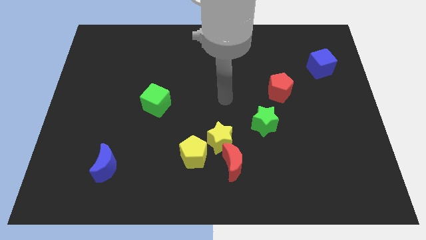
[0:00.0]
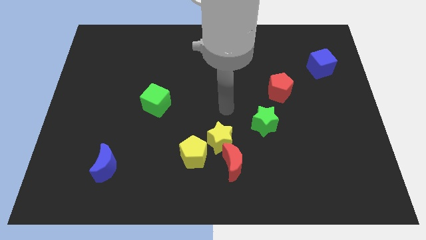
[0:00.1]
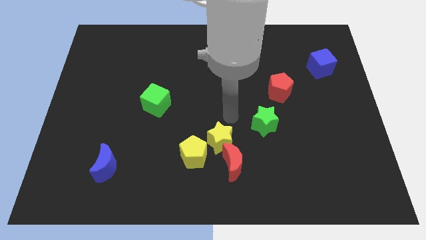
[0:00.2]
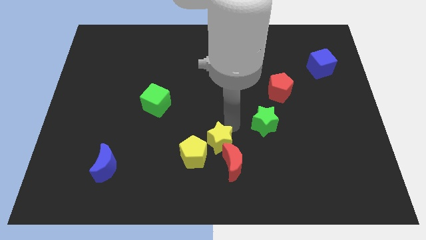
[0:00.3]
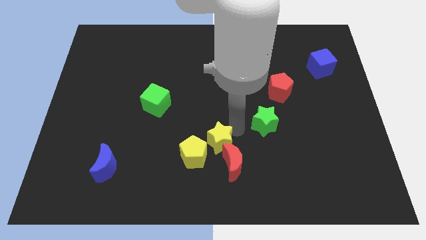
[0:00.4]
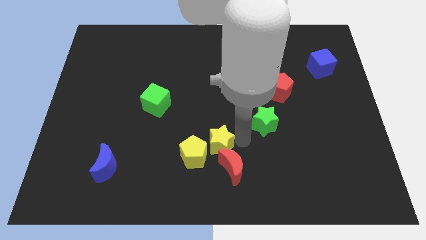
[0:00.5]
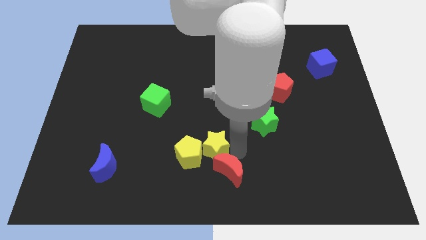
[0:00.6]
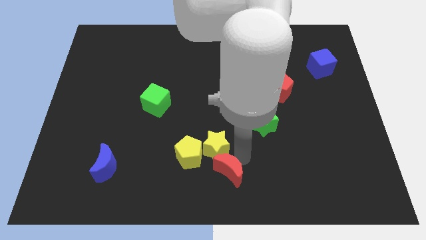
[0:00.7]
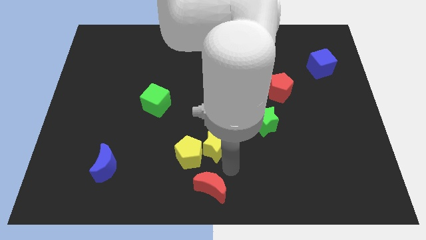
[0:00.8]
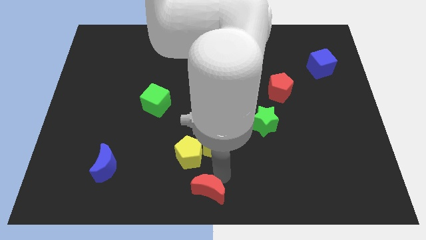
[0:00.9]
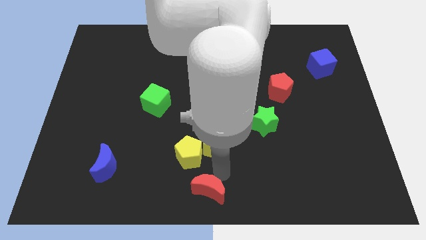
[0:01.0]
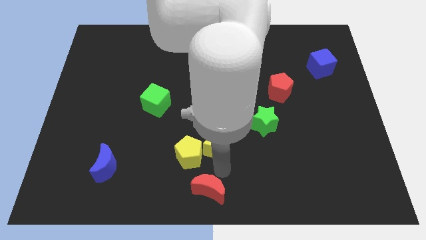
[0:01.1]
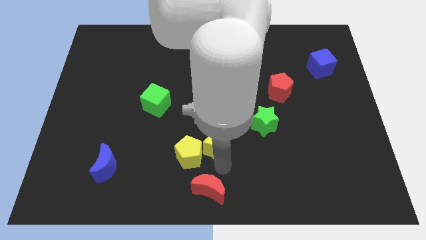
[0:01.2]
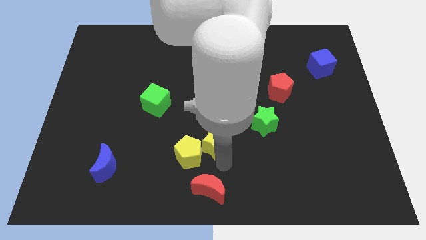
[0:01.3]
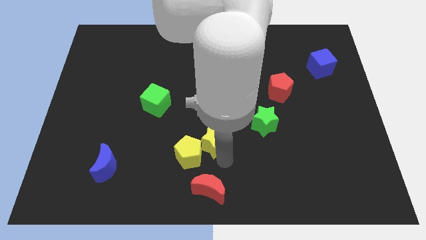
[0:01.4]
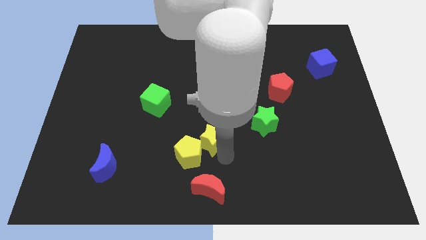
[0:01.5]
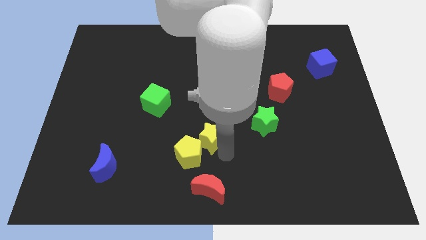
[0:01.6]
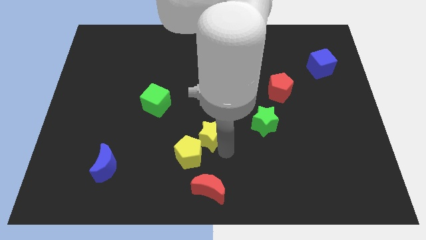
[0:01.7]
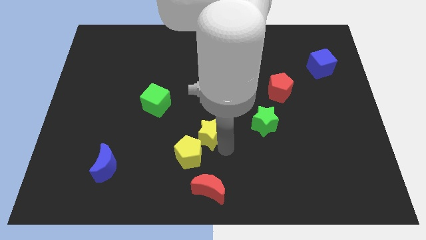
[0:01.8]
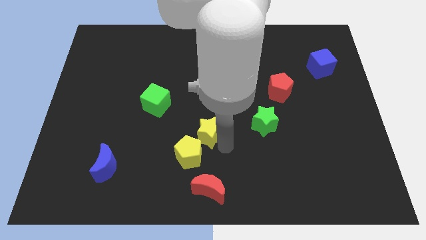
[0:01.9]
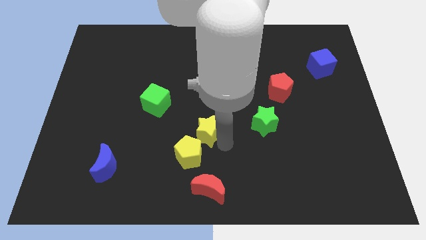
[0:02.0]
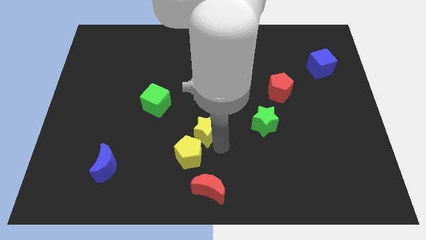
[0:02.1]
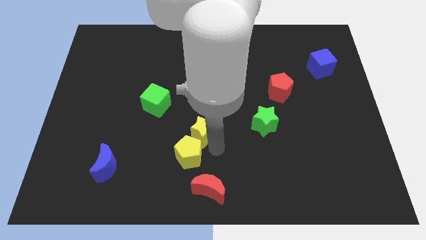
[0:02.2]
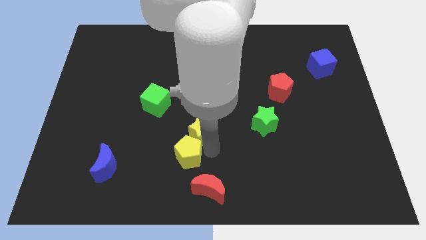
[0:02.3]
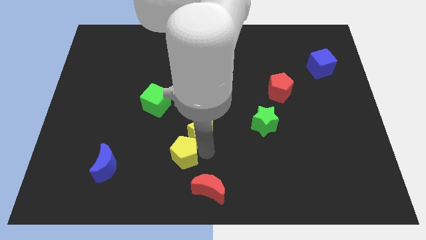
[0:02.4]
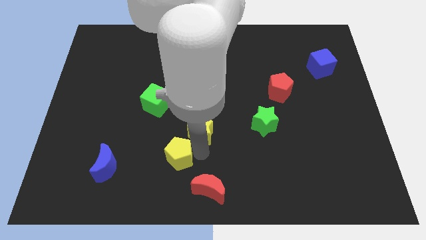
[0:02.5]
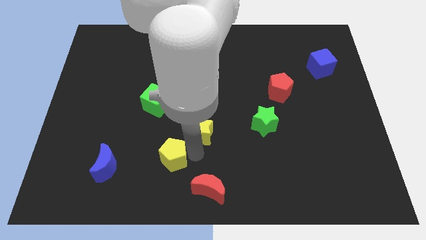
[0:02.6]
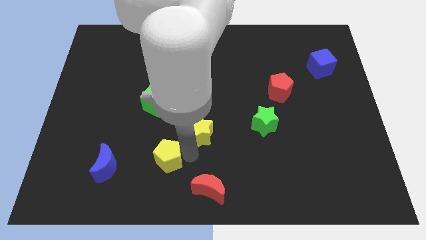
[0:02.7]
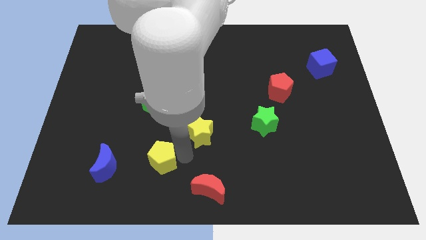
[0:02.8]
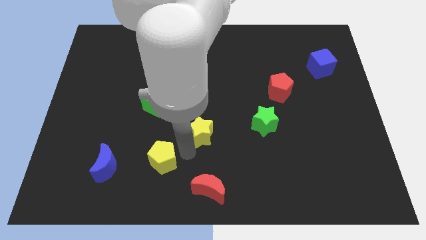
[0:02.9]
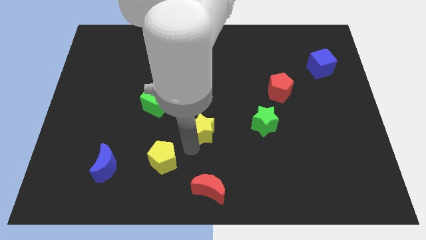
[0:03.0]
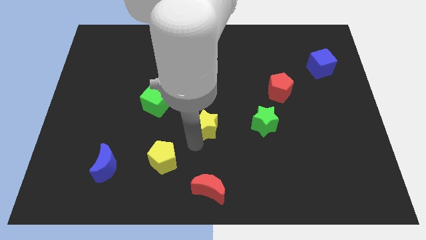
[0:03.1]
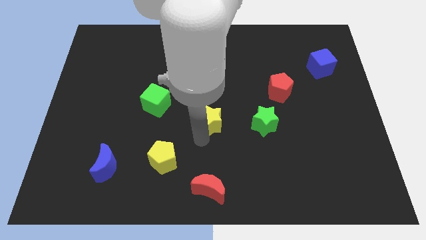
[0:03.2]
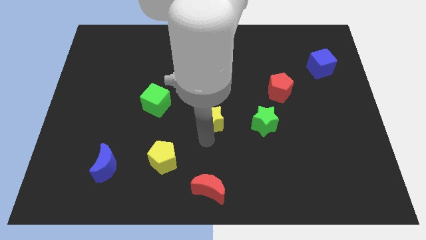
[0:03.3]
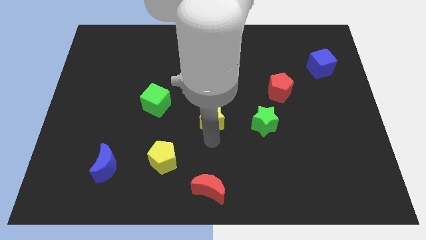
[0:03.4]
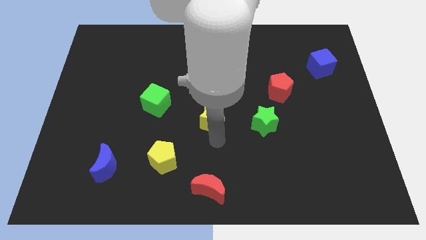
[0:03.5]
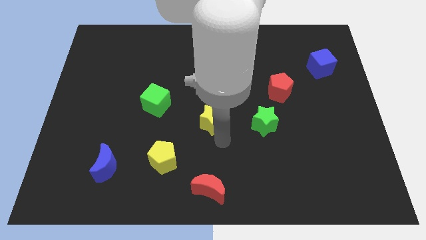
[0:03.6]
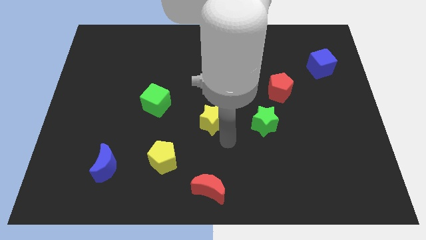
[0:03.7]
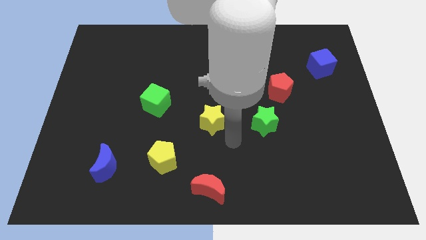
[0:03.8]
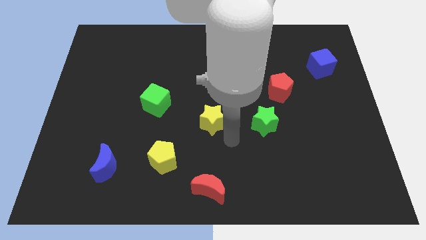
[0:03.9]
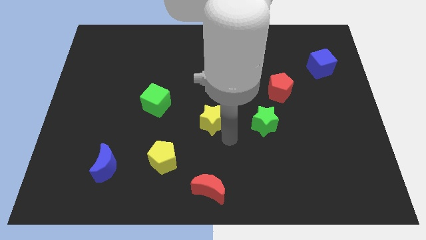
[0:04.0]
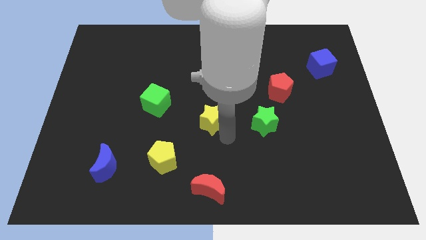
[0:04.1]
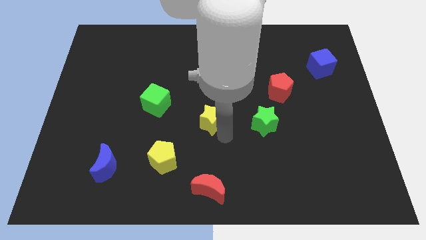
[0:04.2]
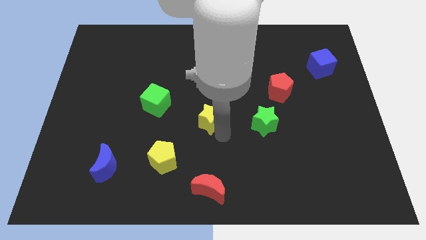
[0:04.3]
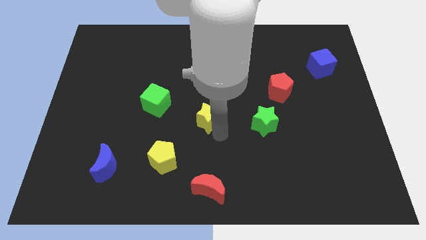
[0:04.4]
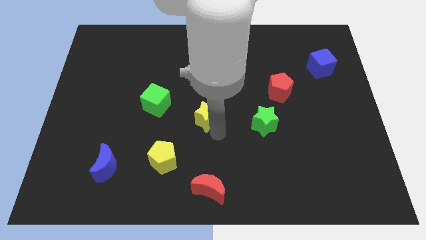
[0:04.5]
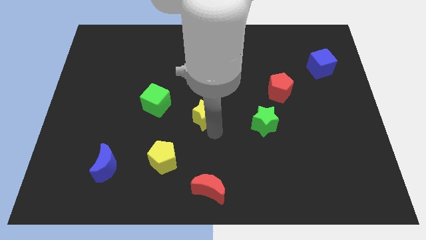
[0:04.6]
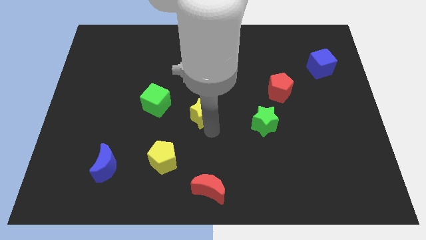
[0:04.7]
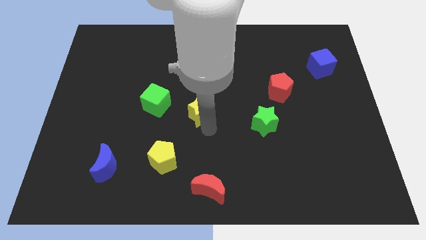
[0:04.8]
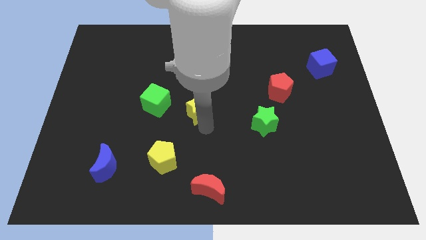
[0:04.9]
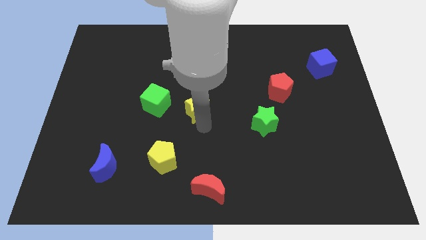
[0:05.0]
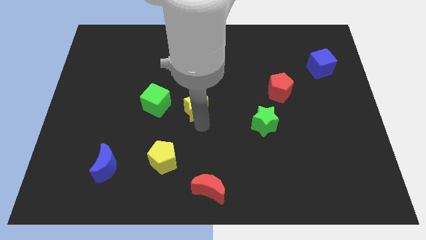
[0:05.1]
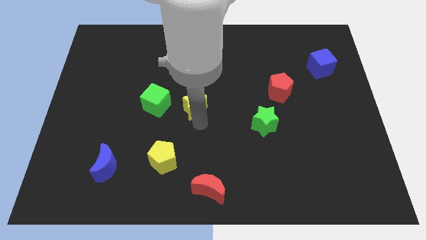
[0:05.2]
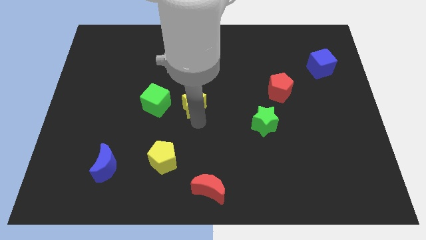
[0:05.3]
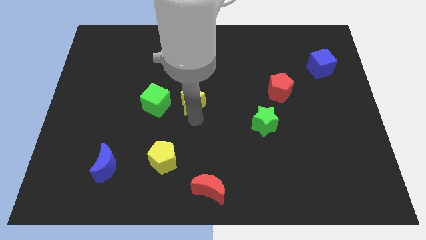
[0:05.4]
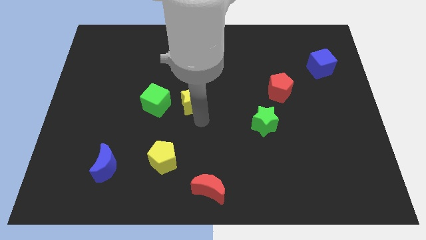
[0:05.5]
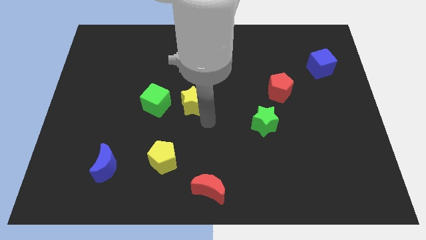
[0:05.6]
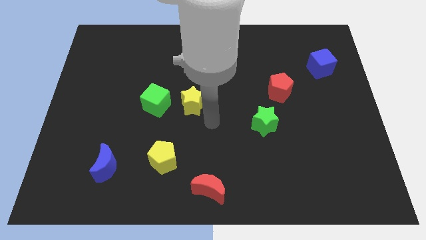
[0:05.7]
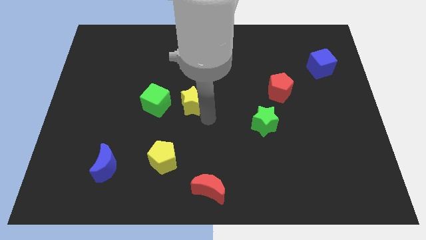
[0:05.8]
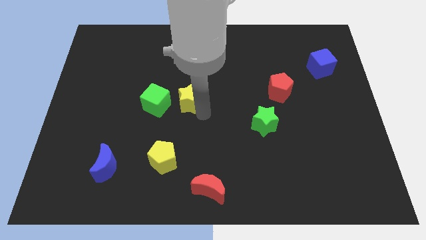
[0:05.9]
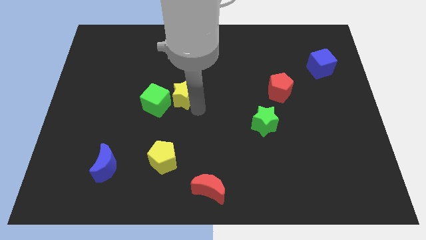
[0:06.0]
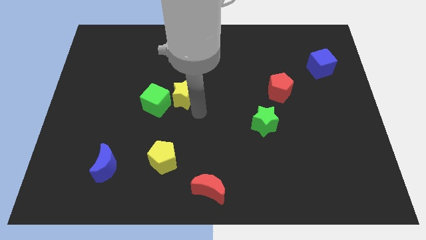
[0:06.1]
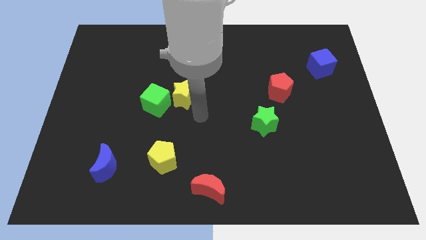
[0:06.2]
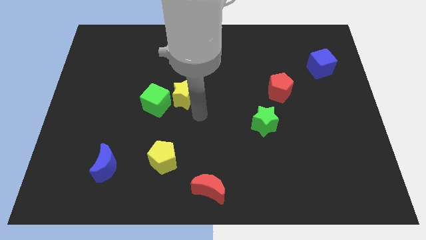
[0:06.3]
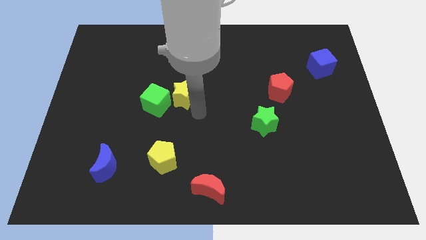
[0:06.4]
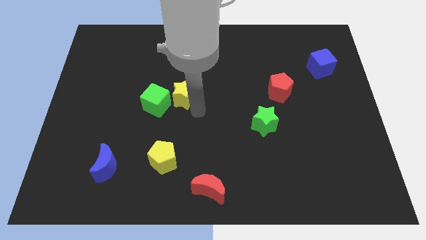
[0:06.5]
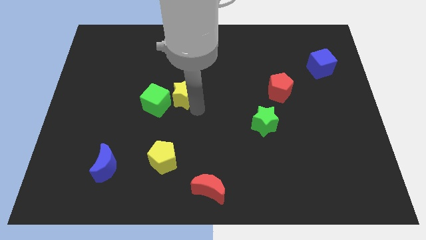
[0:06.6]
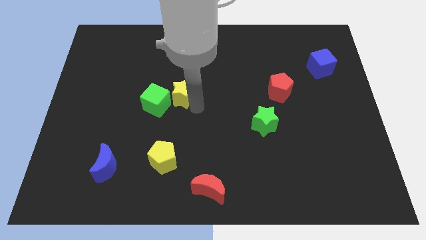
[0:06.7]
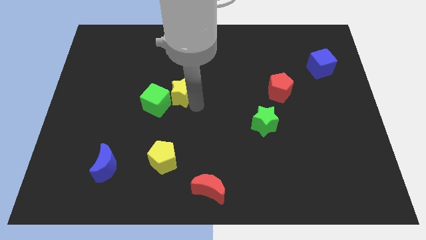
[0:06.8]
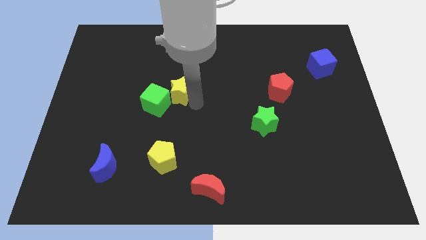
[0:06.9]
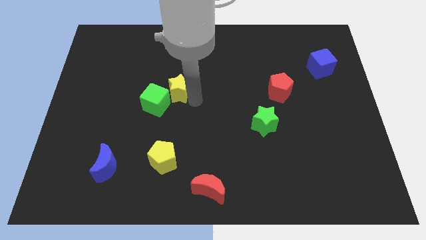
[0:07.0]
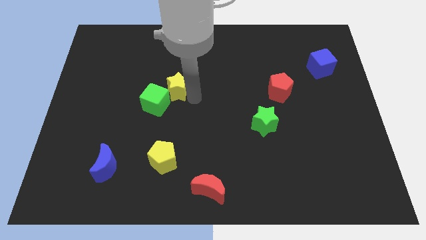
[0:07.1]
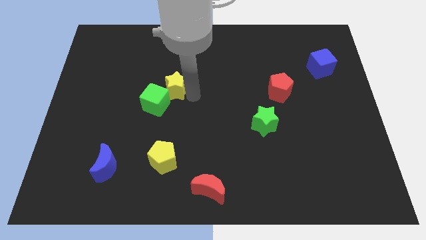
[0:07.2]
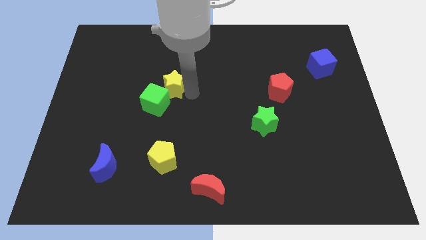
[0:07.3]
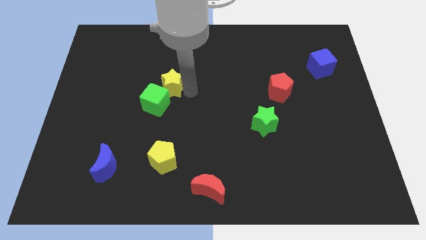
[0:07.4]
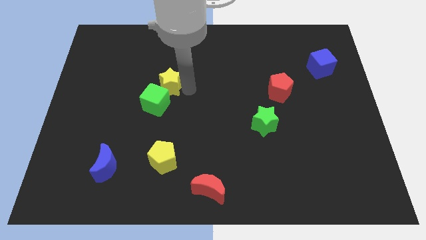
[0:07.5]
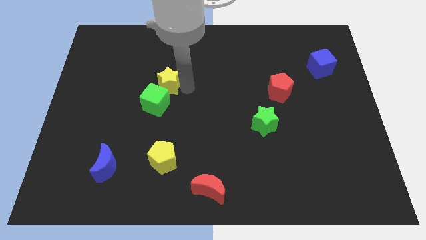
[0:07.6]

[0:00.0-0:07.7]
slide the yellow star diagonally upwards and to the left

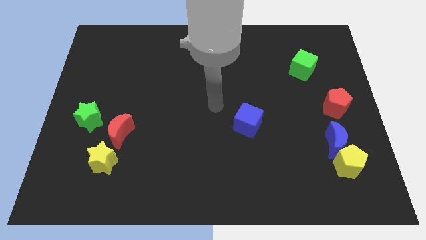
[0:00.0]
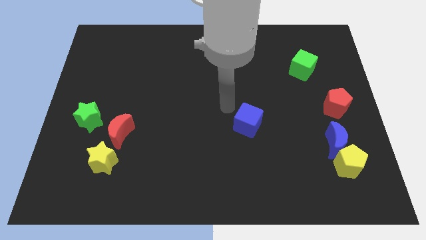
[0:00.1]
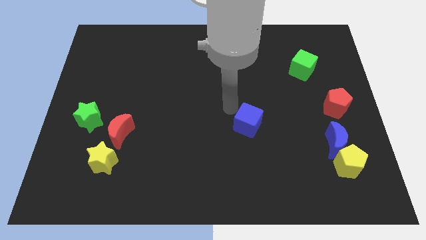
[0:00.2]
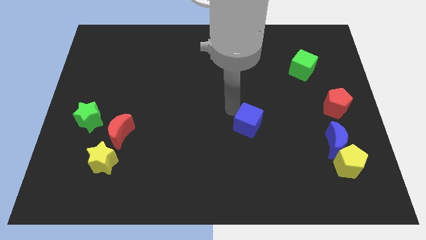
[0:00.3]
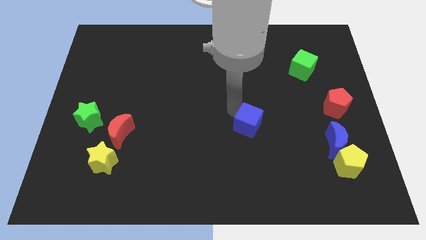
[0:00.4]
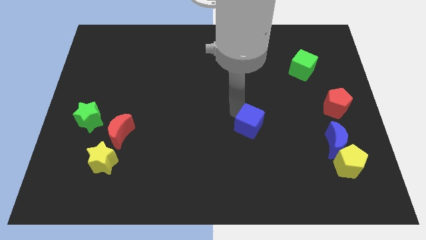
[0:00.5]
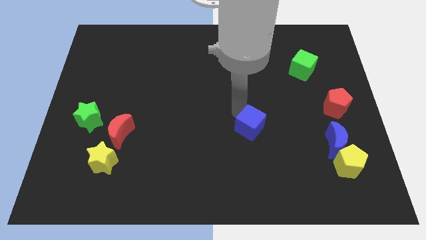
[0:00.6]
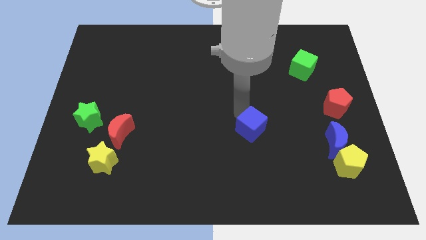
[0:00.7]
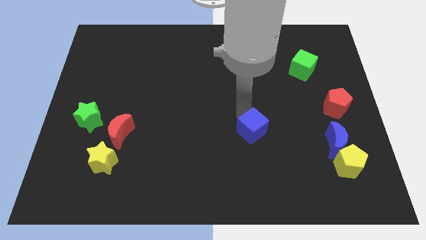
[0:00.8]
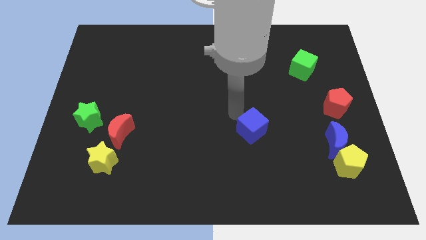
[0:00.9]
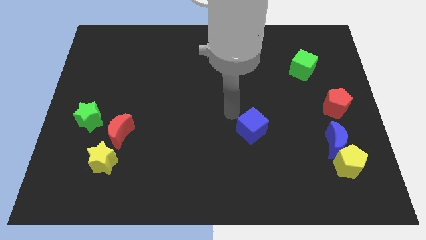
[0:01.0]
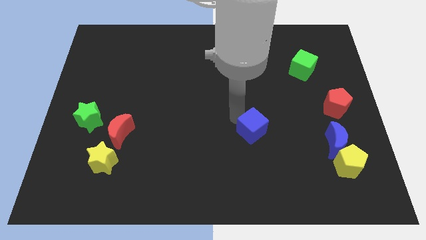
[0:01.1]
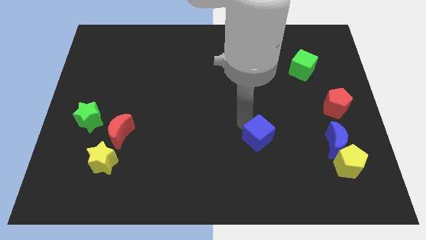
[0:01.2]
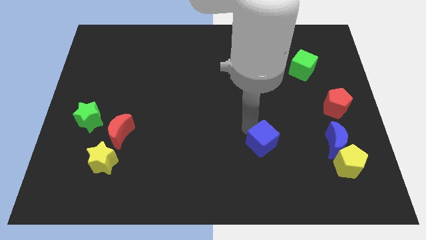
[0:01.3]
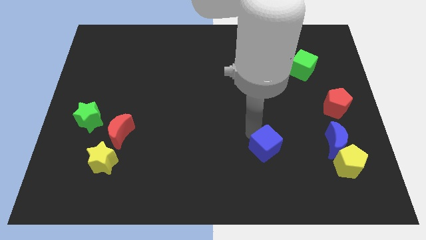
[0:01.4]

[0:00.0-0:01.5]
move the blue cube a bit downwards and right
